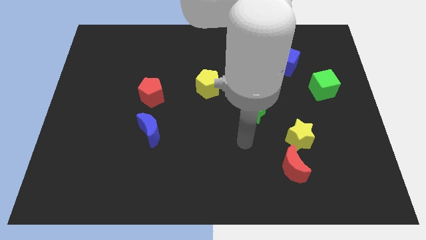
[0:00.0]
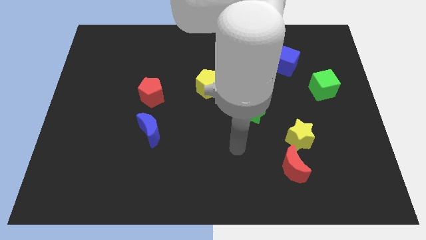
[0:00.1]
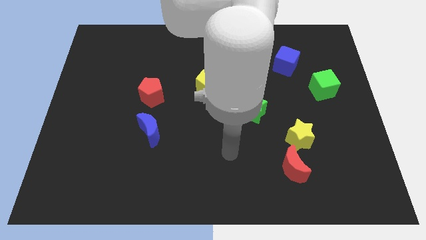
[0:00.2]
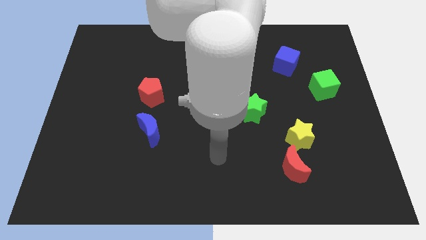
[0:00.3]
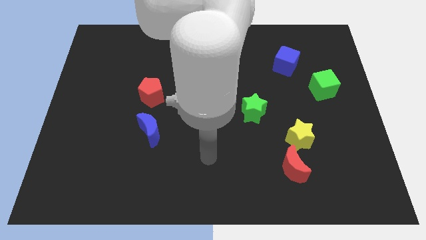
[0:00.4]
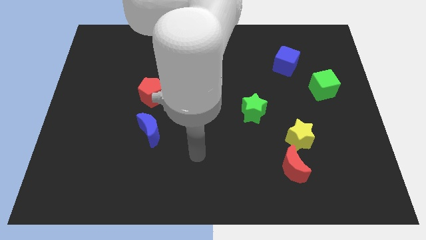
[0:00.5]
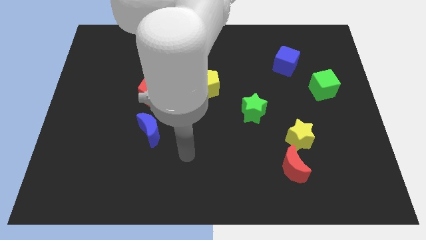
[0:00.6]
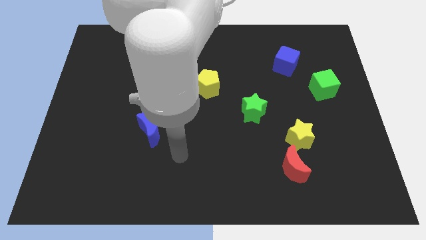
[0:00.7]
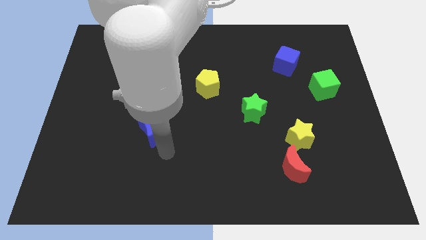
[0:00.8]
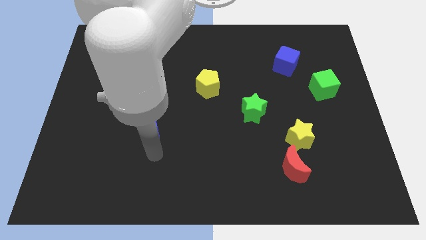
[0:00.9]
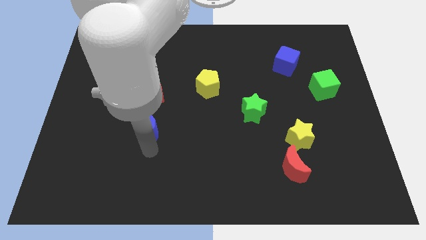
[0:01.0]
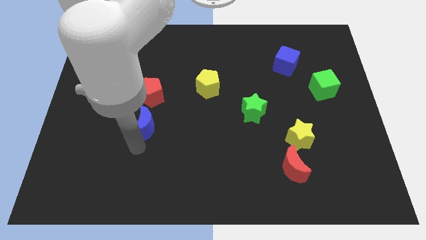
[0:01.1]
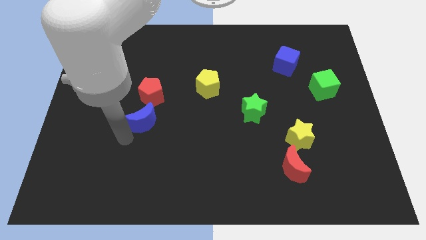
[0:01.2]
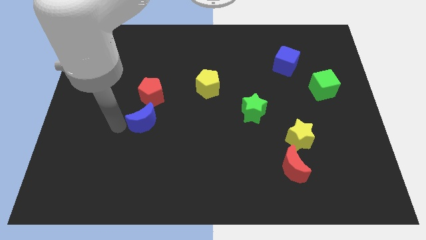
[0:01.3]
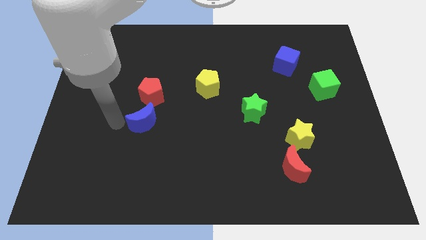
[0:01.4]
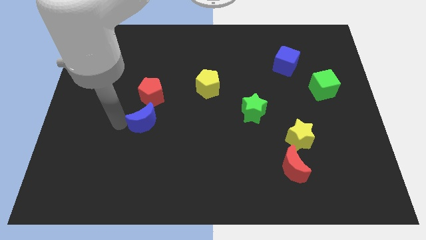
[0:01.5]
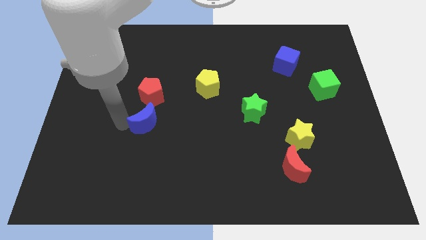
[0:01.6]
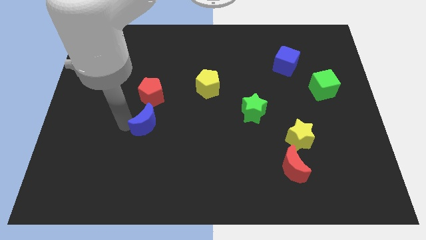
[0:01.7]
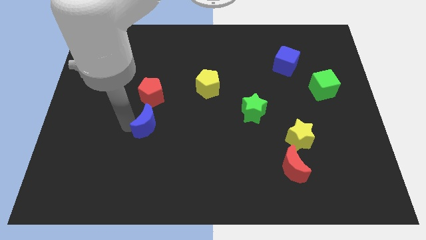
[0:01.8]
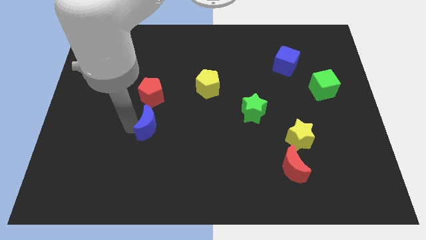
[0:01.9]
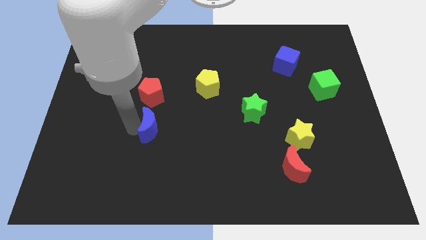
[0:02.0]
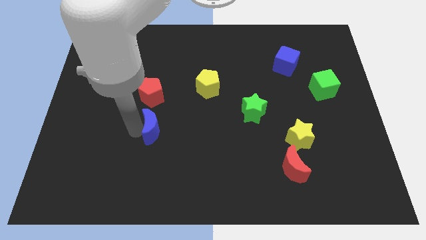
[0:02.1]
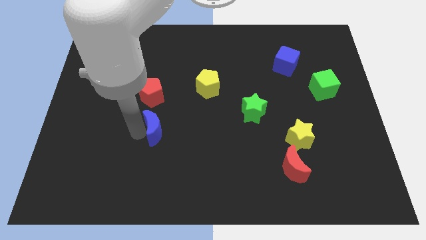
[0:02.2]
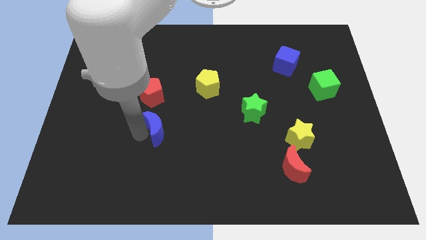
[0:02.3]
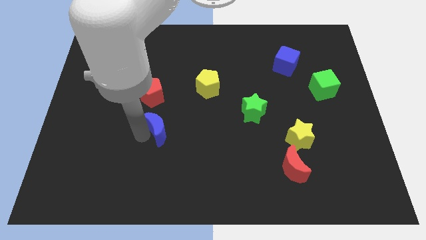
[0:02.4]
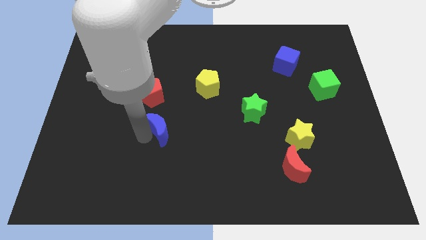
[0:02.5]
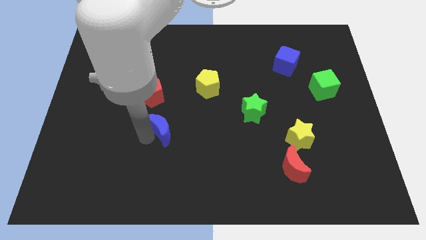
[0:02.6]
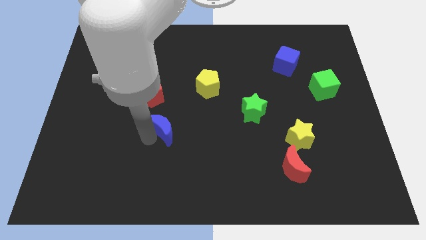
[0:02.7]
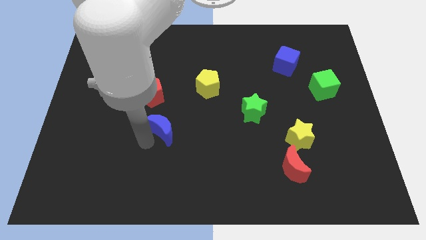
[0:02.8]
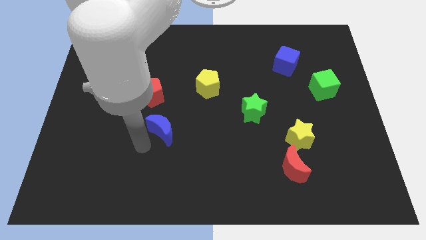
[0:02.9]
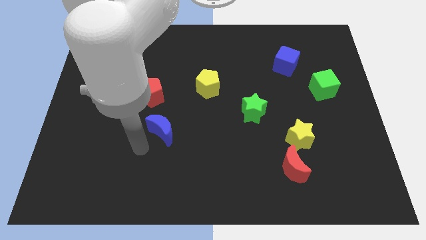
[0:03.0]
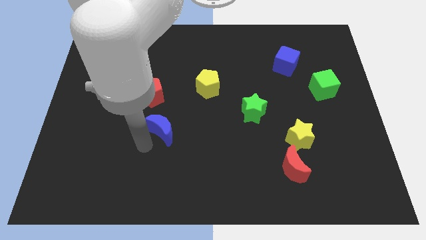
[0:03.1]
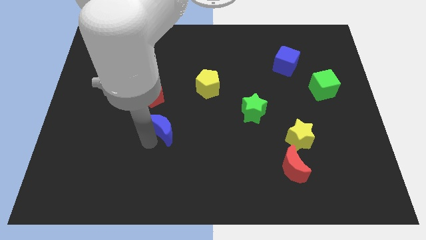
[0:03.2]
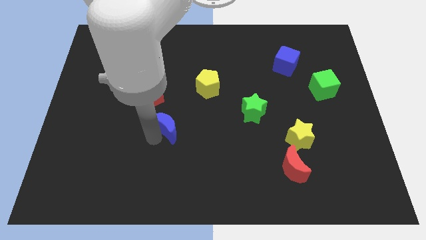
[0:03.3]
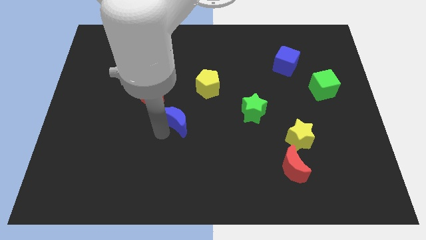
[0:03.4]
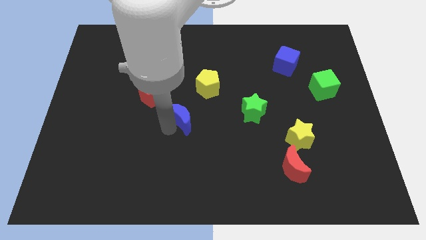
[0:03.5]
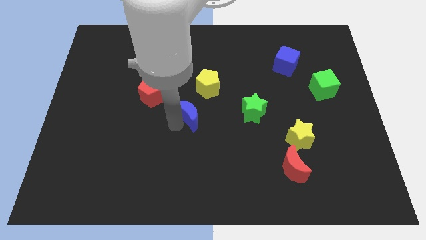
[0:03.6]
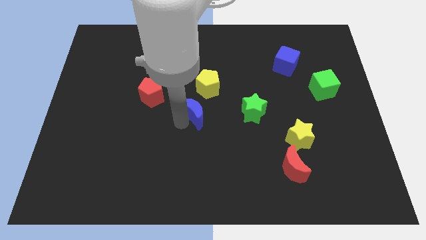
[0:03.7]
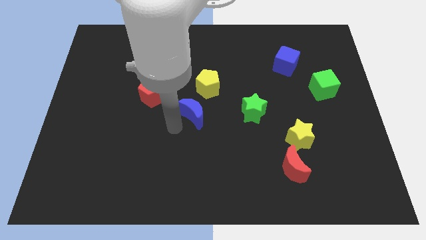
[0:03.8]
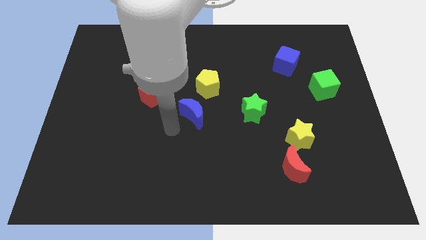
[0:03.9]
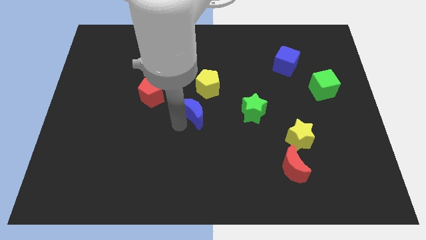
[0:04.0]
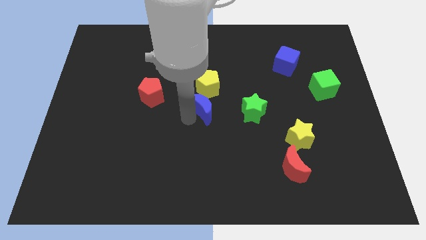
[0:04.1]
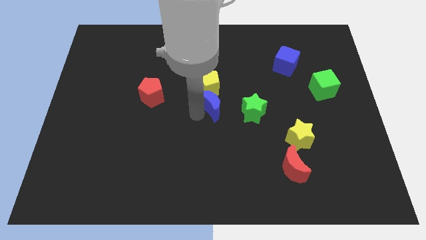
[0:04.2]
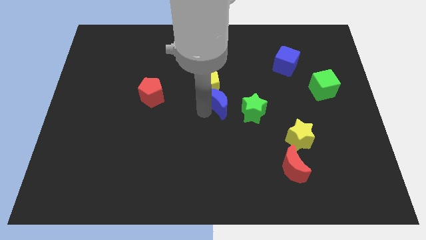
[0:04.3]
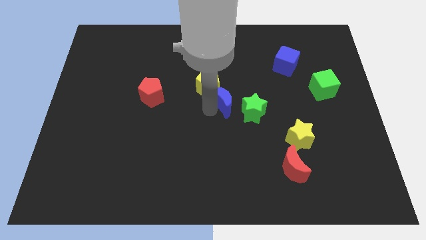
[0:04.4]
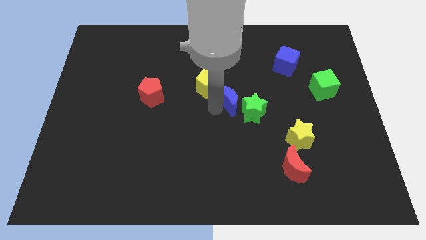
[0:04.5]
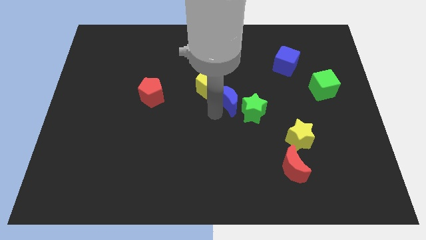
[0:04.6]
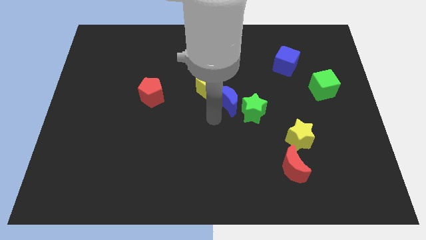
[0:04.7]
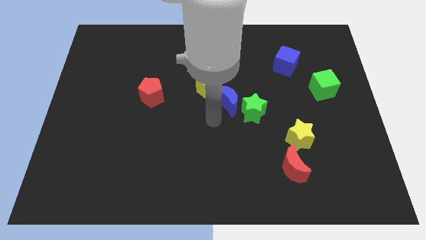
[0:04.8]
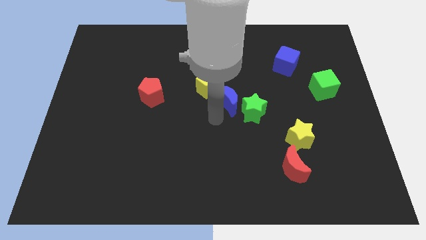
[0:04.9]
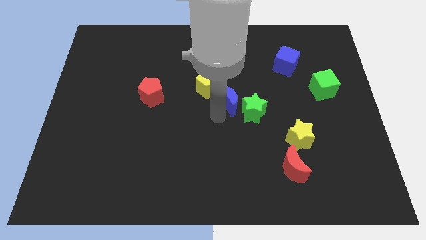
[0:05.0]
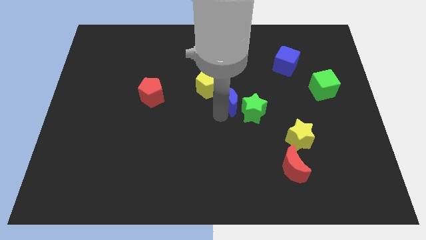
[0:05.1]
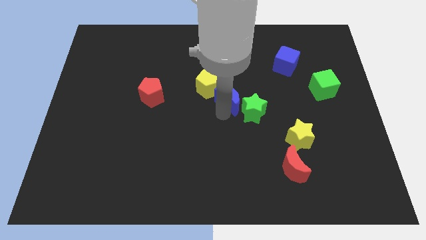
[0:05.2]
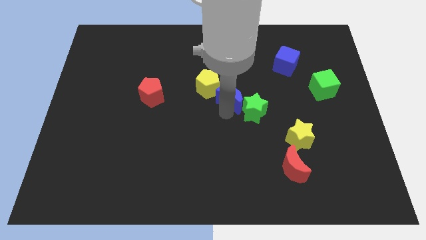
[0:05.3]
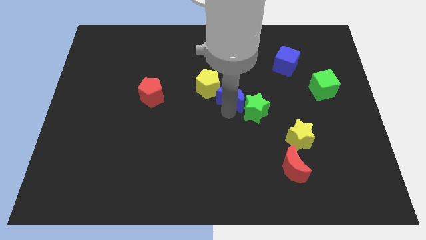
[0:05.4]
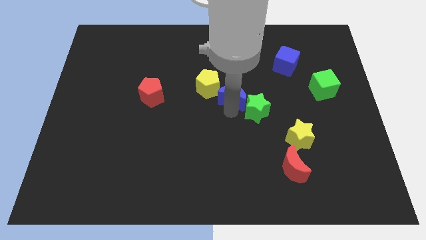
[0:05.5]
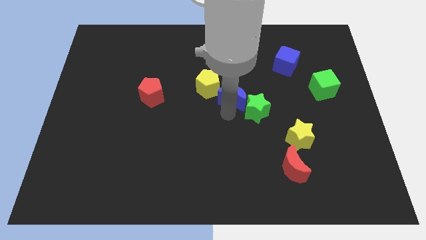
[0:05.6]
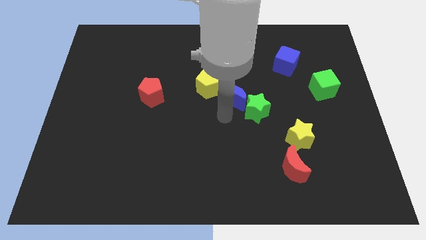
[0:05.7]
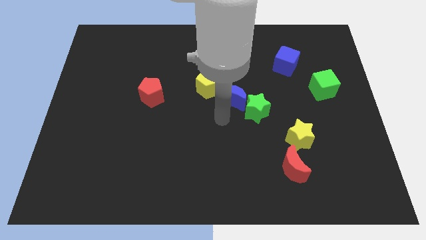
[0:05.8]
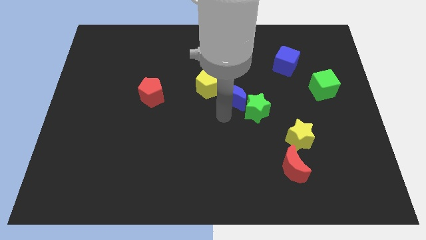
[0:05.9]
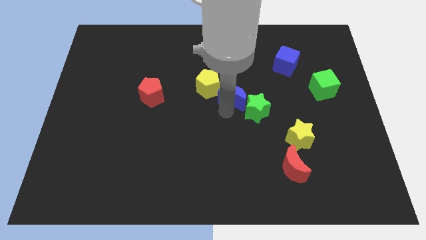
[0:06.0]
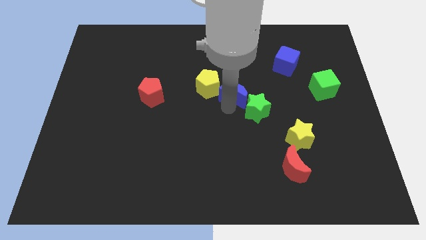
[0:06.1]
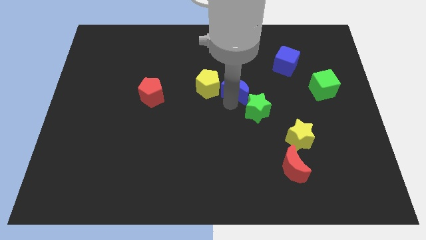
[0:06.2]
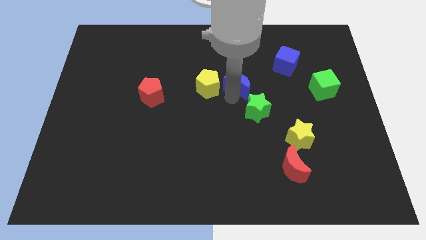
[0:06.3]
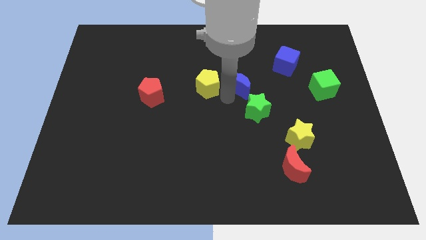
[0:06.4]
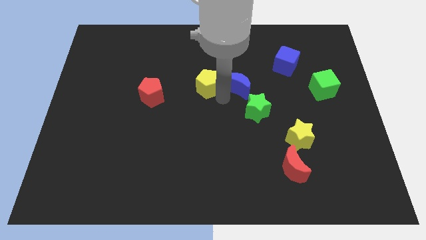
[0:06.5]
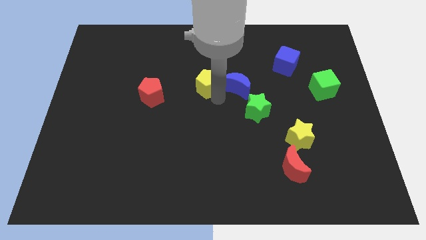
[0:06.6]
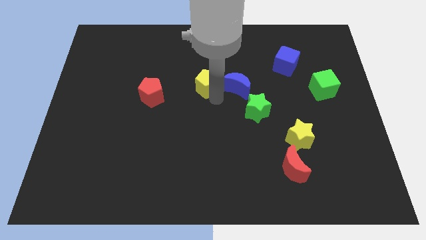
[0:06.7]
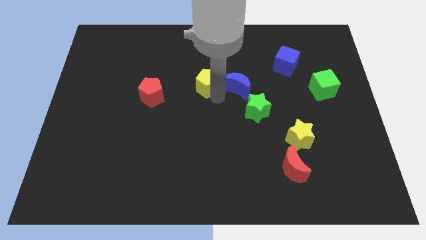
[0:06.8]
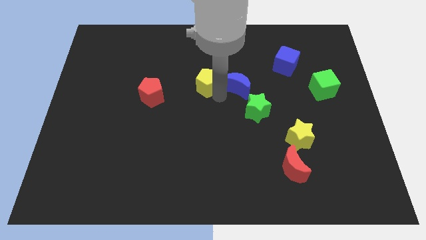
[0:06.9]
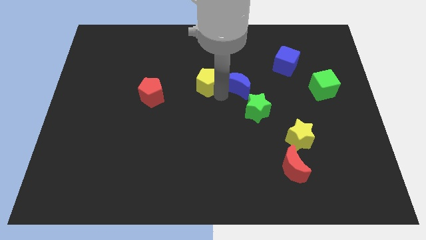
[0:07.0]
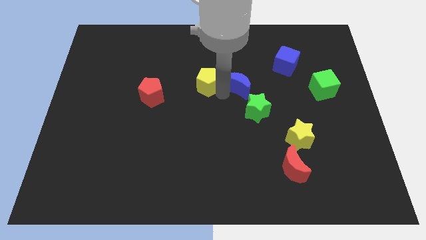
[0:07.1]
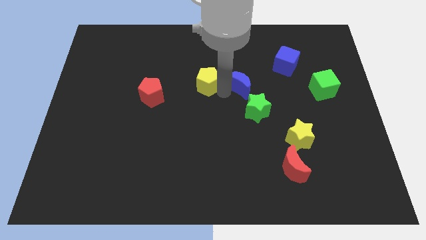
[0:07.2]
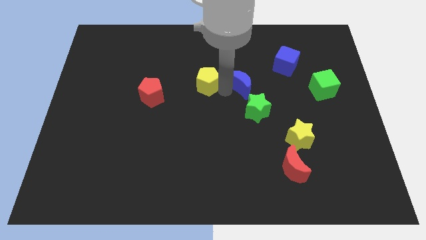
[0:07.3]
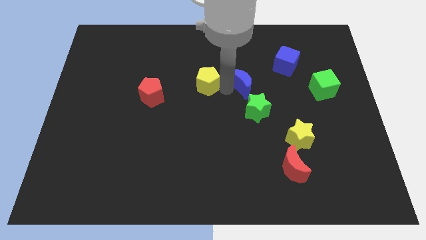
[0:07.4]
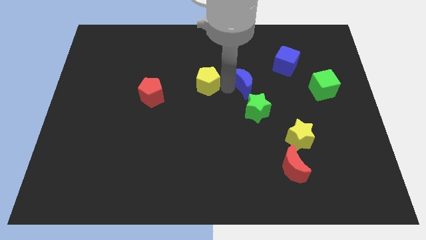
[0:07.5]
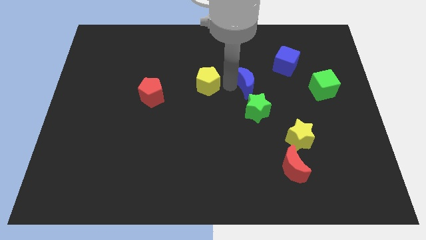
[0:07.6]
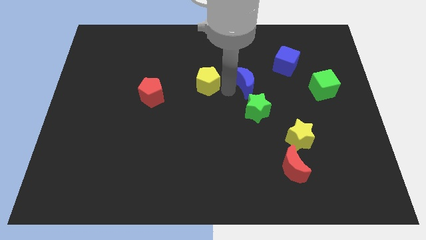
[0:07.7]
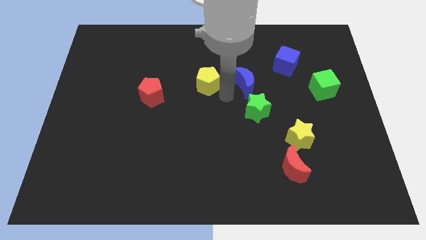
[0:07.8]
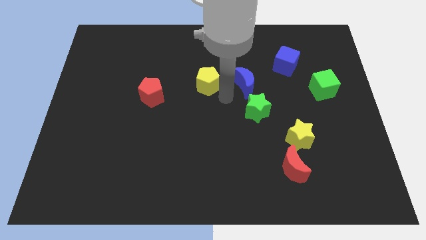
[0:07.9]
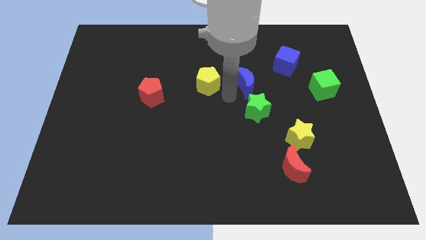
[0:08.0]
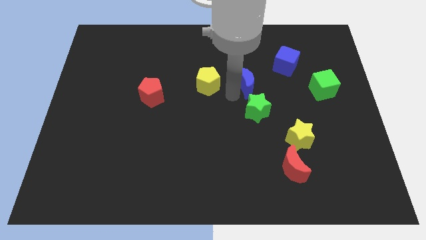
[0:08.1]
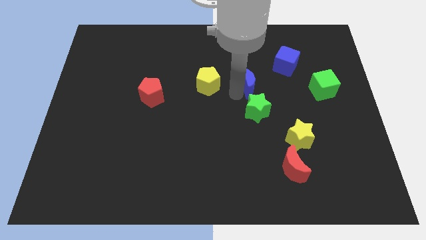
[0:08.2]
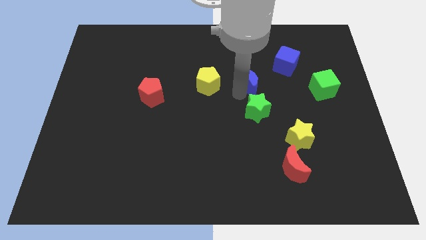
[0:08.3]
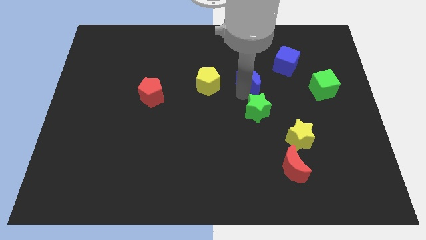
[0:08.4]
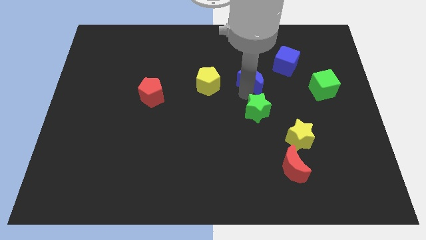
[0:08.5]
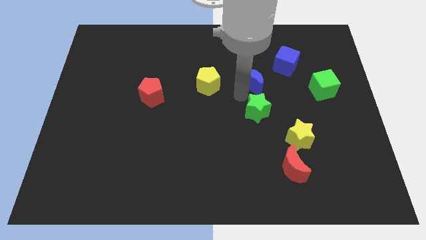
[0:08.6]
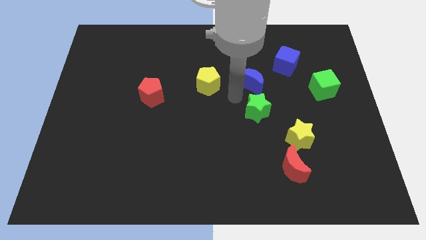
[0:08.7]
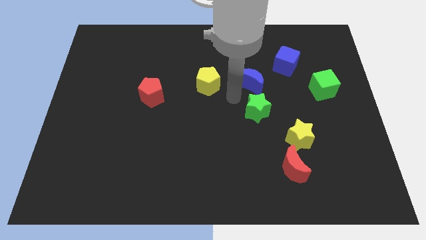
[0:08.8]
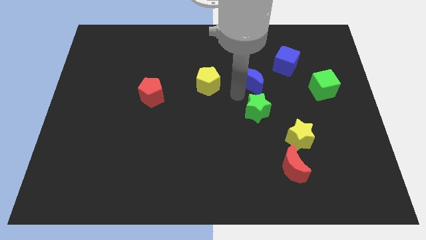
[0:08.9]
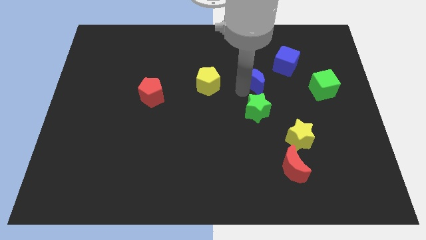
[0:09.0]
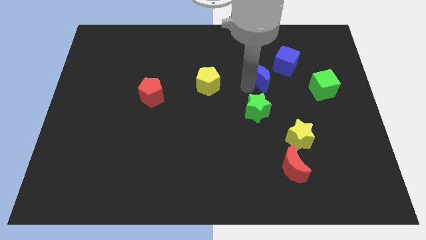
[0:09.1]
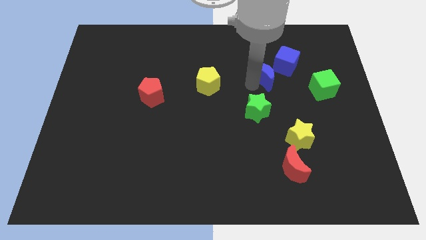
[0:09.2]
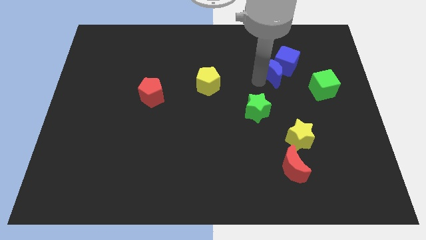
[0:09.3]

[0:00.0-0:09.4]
move the blue moon next to the blue cube
